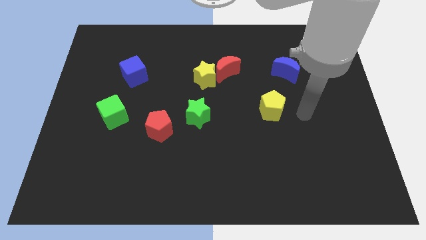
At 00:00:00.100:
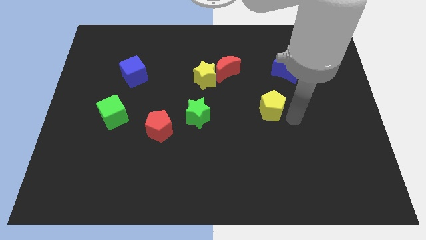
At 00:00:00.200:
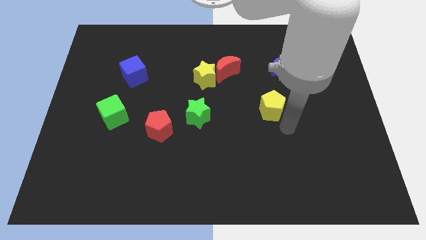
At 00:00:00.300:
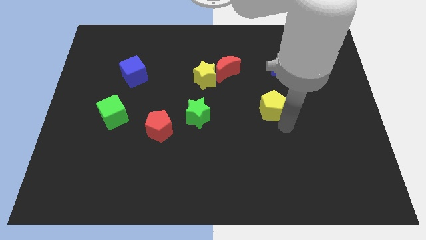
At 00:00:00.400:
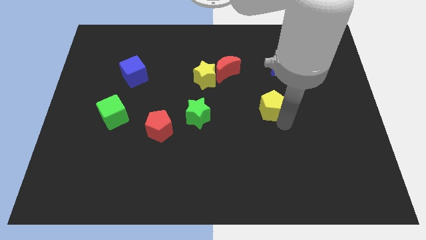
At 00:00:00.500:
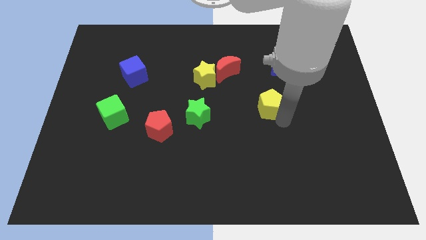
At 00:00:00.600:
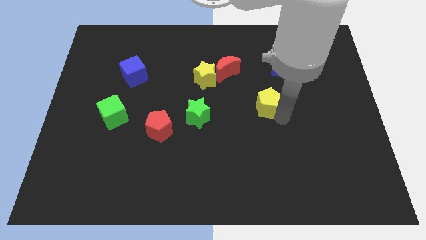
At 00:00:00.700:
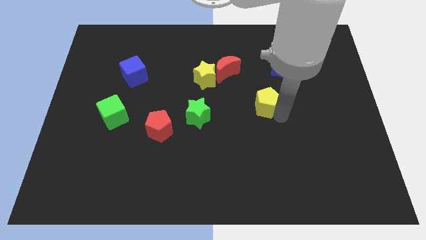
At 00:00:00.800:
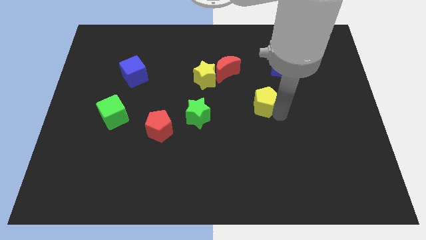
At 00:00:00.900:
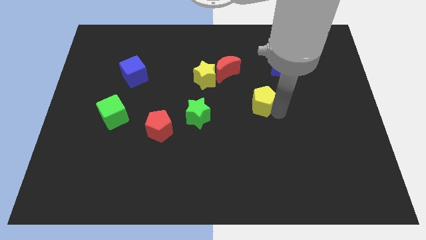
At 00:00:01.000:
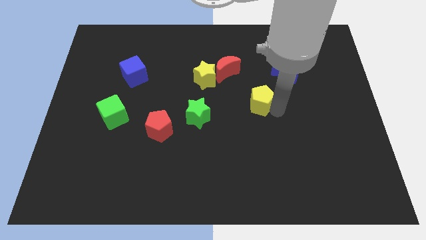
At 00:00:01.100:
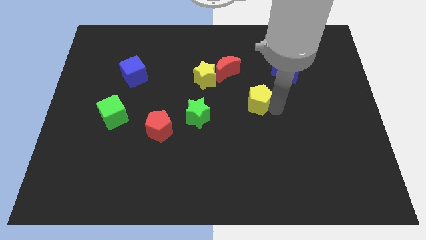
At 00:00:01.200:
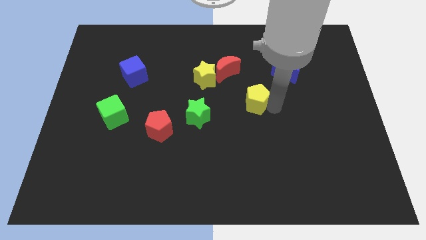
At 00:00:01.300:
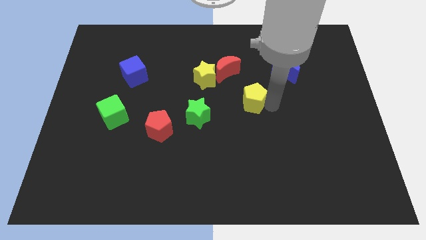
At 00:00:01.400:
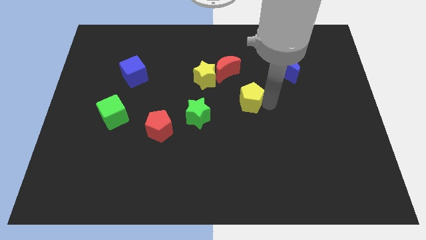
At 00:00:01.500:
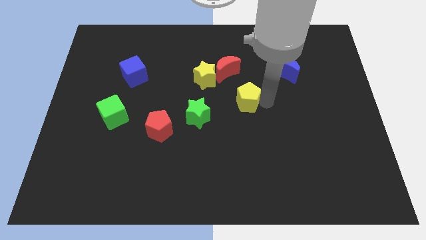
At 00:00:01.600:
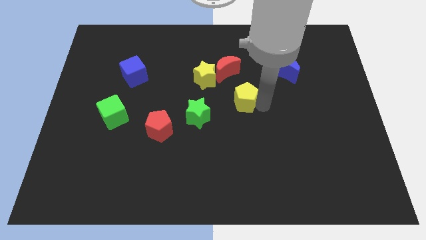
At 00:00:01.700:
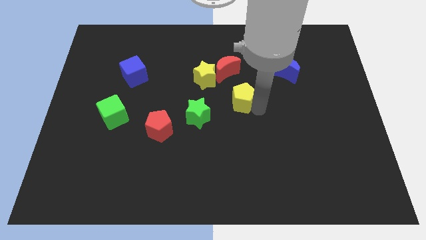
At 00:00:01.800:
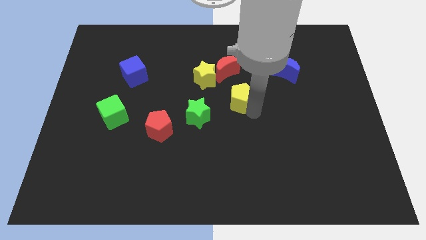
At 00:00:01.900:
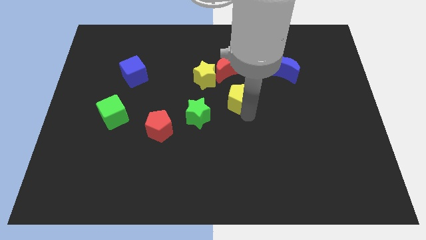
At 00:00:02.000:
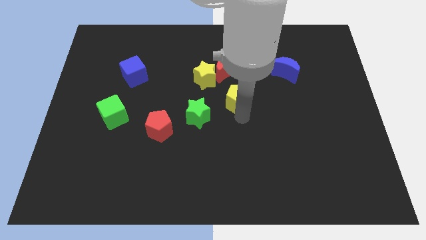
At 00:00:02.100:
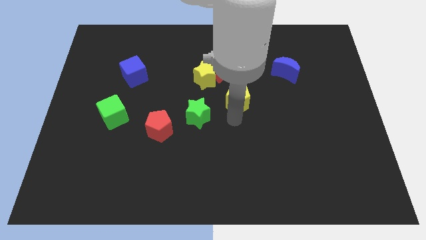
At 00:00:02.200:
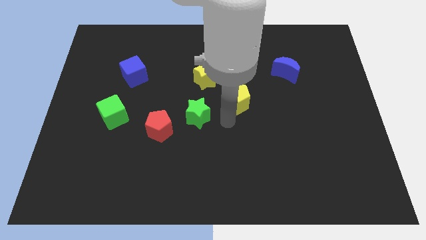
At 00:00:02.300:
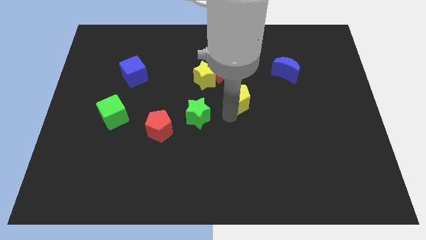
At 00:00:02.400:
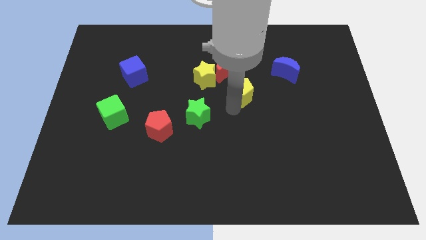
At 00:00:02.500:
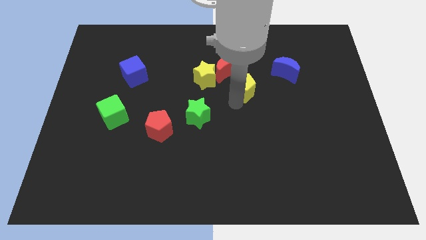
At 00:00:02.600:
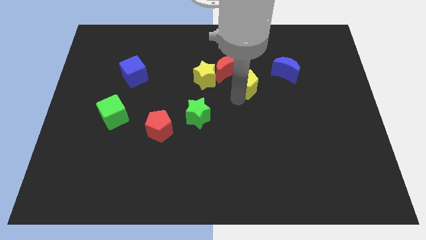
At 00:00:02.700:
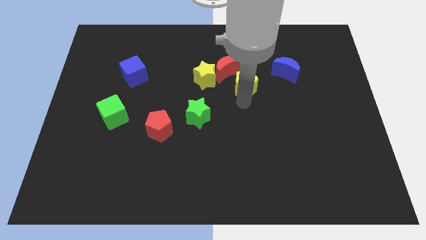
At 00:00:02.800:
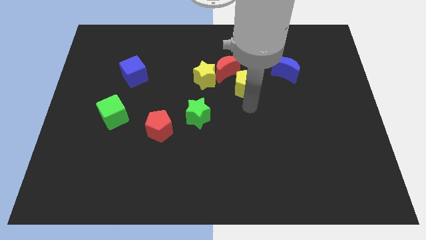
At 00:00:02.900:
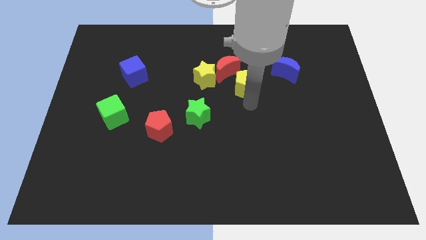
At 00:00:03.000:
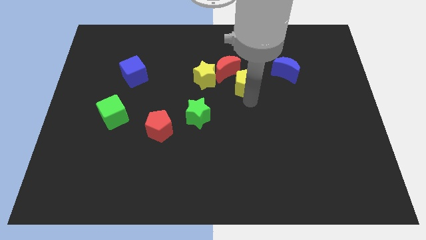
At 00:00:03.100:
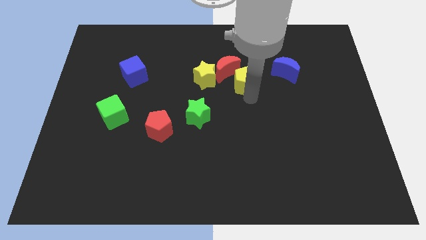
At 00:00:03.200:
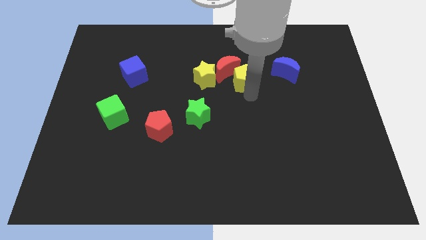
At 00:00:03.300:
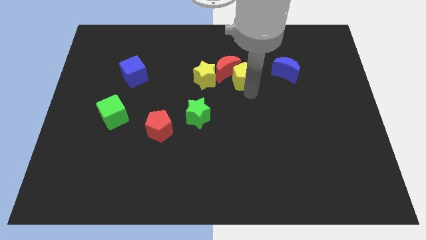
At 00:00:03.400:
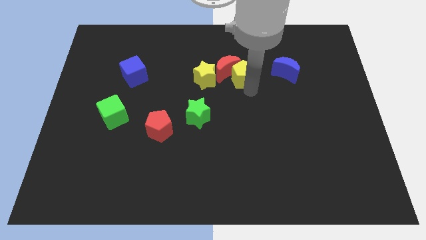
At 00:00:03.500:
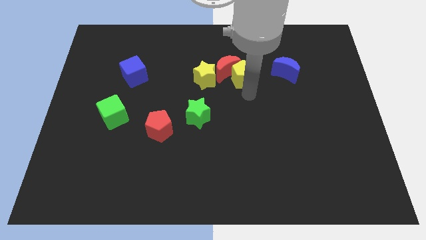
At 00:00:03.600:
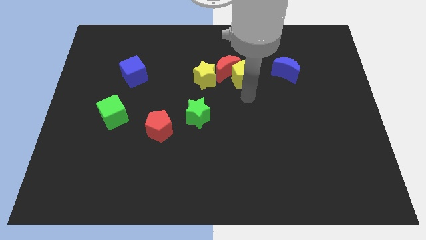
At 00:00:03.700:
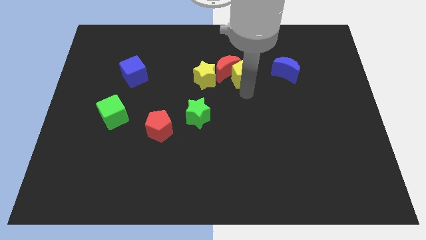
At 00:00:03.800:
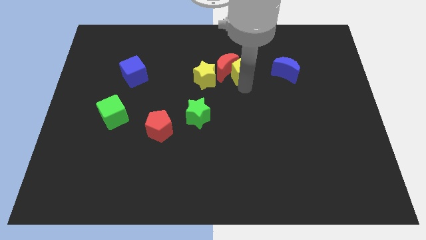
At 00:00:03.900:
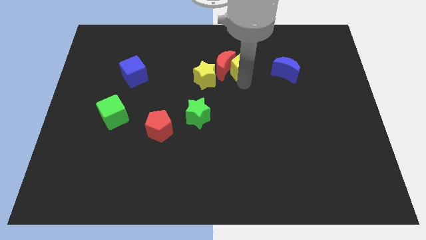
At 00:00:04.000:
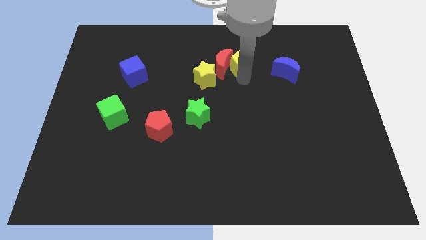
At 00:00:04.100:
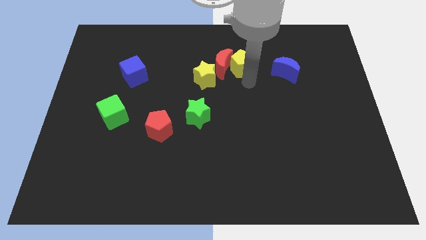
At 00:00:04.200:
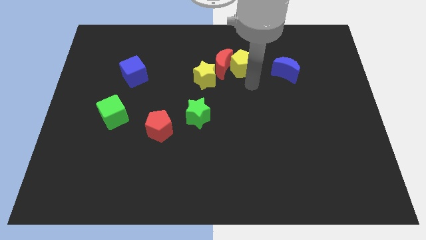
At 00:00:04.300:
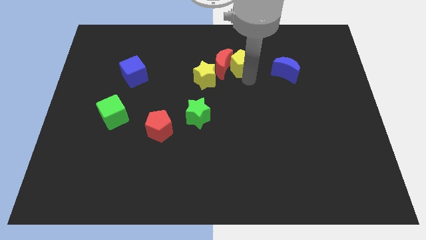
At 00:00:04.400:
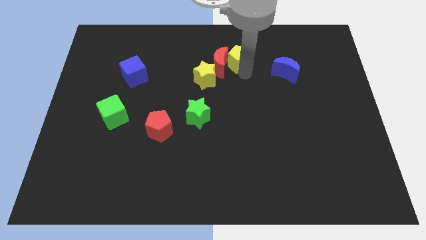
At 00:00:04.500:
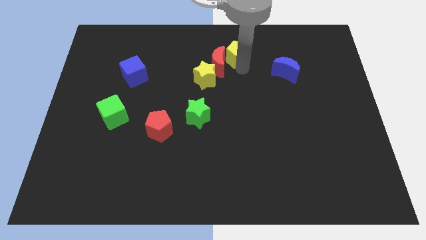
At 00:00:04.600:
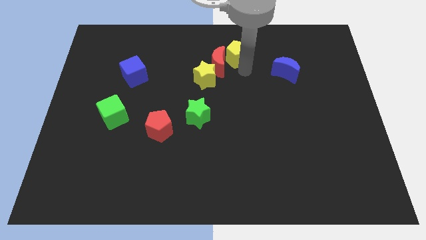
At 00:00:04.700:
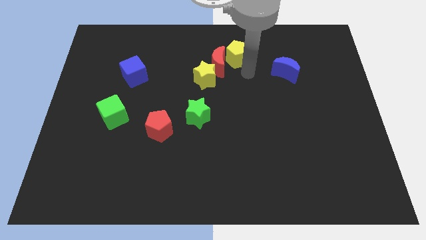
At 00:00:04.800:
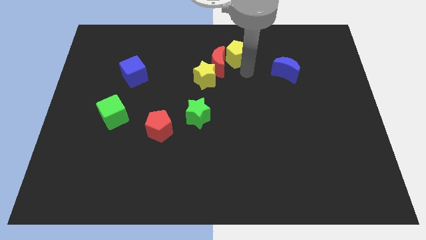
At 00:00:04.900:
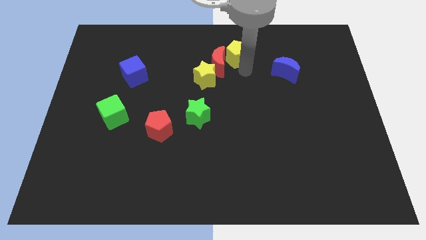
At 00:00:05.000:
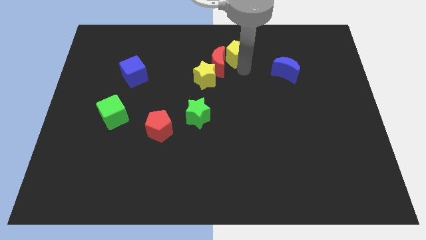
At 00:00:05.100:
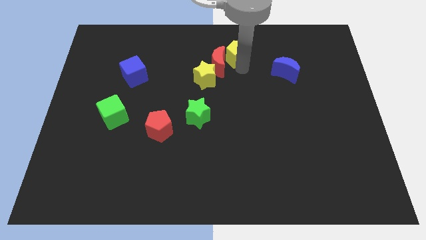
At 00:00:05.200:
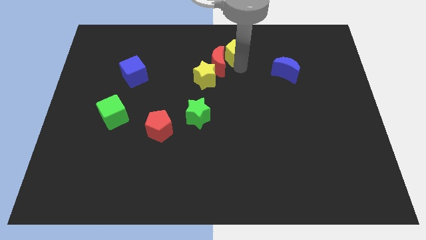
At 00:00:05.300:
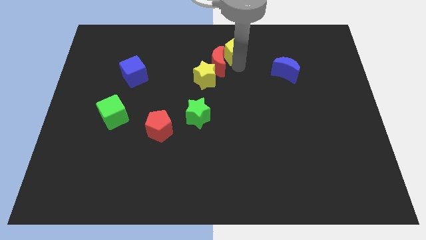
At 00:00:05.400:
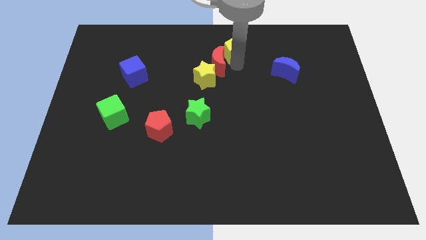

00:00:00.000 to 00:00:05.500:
put the yellow pentagon to the towards your base

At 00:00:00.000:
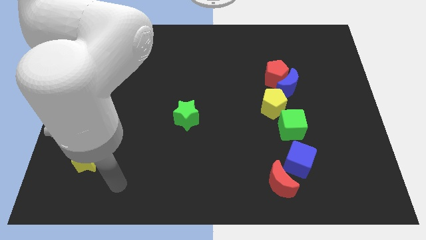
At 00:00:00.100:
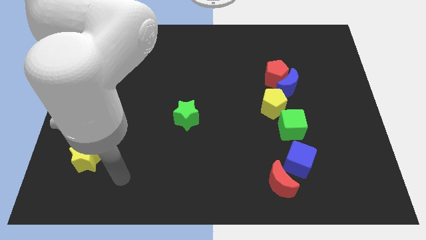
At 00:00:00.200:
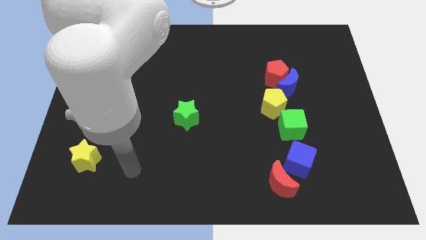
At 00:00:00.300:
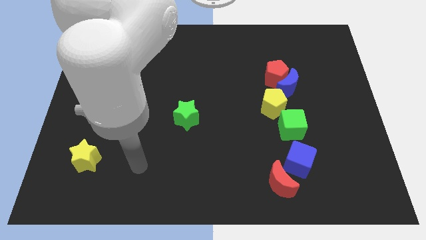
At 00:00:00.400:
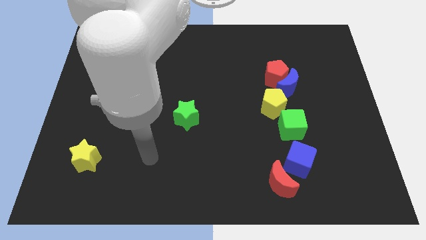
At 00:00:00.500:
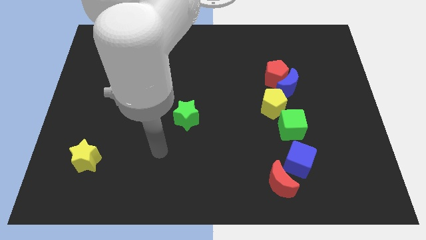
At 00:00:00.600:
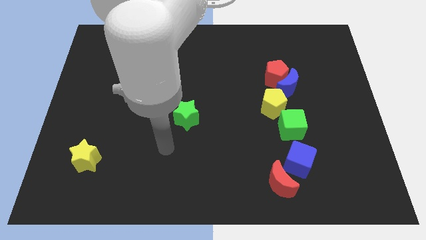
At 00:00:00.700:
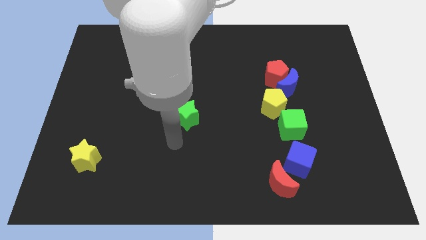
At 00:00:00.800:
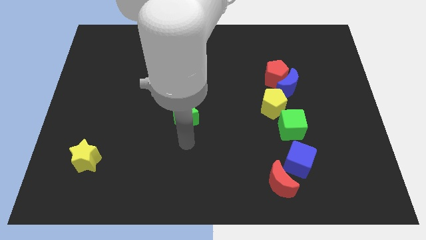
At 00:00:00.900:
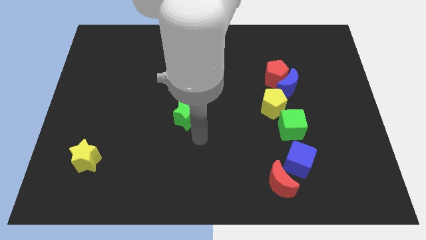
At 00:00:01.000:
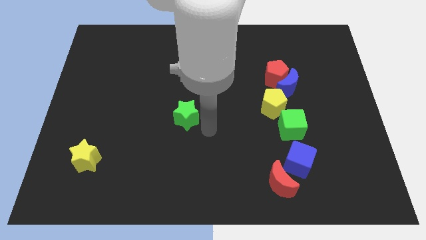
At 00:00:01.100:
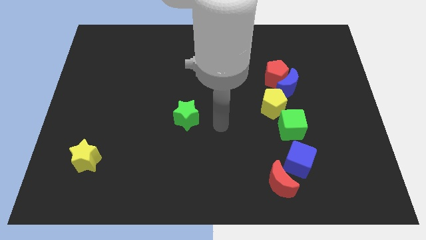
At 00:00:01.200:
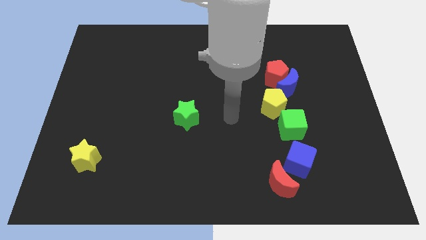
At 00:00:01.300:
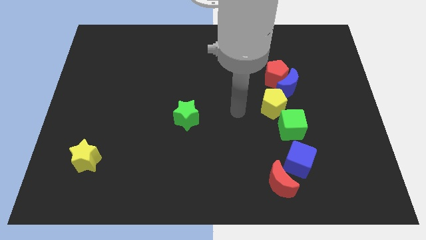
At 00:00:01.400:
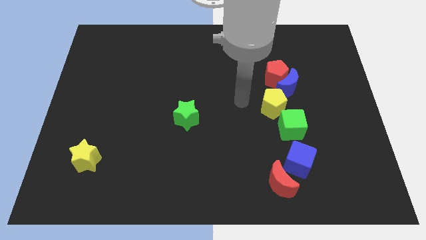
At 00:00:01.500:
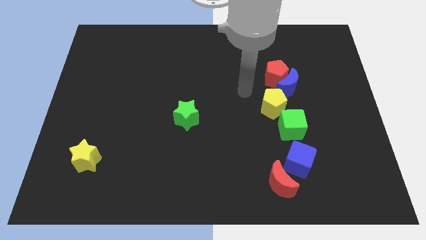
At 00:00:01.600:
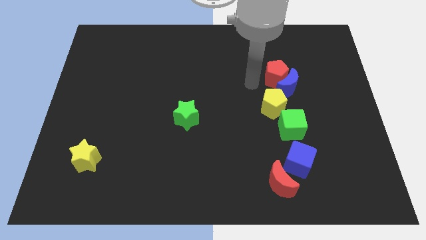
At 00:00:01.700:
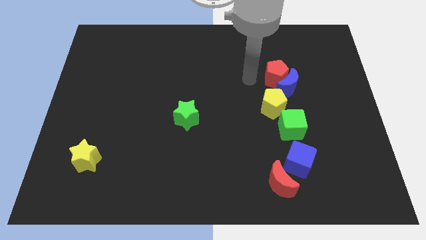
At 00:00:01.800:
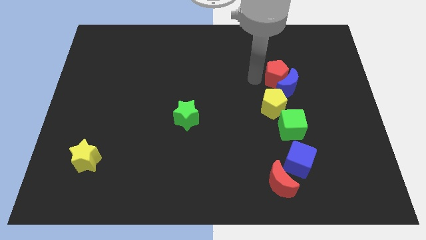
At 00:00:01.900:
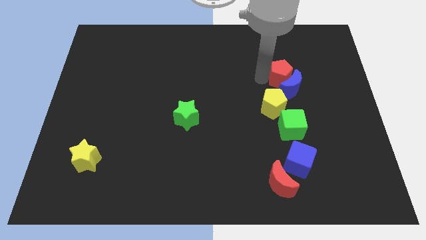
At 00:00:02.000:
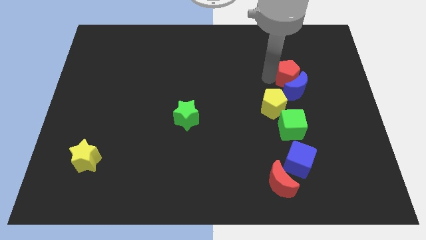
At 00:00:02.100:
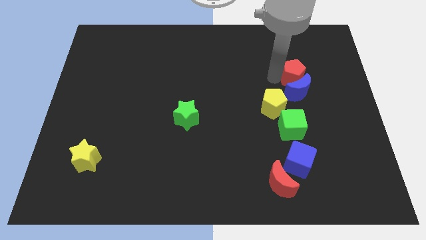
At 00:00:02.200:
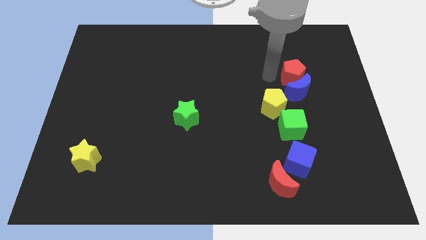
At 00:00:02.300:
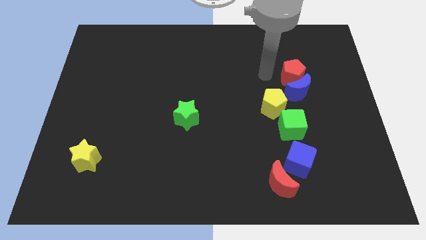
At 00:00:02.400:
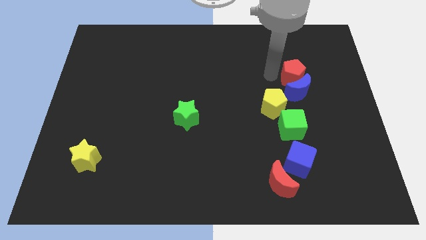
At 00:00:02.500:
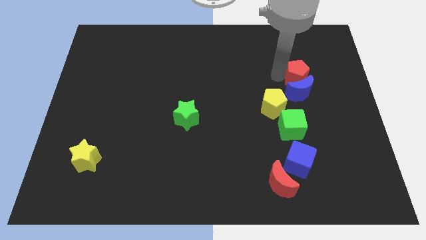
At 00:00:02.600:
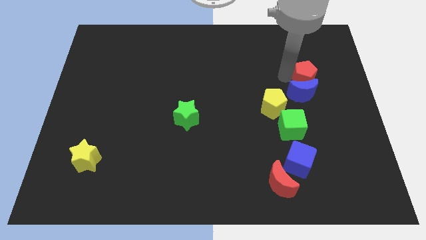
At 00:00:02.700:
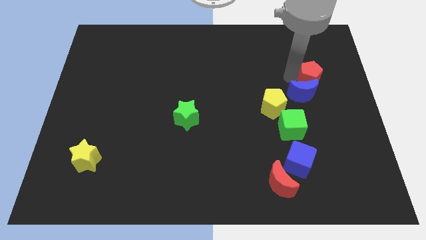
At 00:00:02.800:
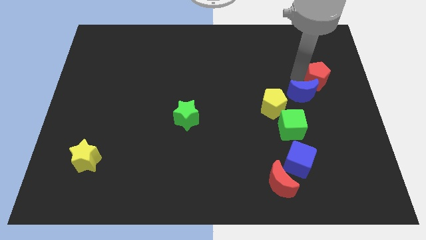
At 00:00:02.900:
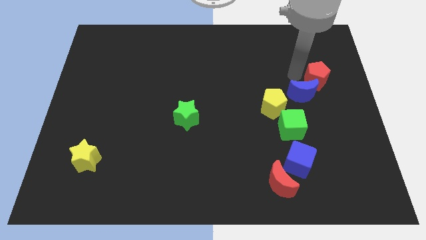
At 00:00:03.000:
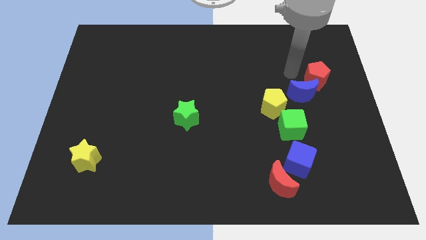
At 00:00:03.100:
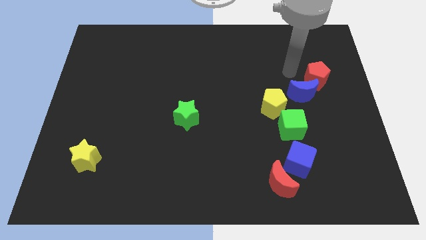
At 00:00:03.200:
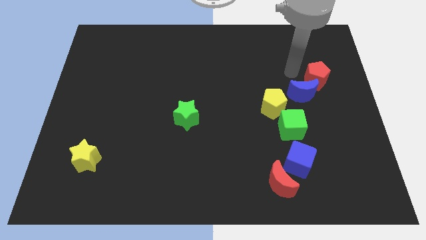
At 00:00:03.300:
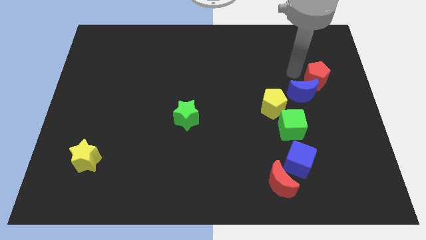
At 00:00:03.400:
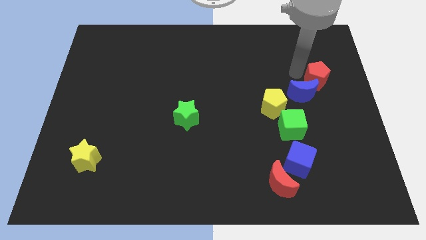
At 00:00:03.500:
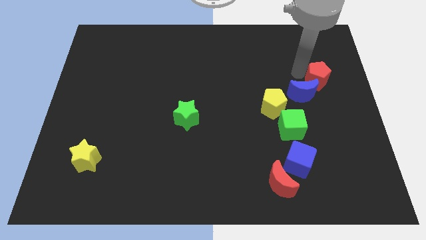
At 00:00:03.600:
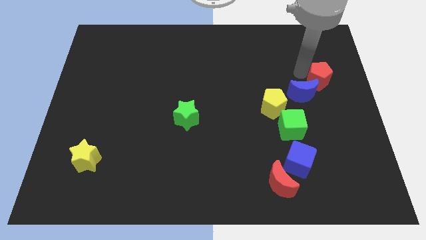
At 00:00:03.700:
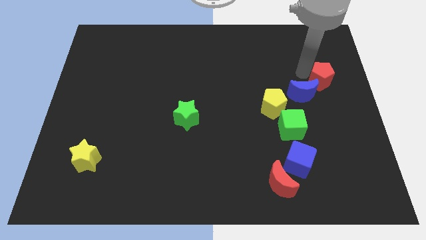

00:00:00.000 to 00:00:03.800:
slide the red pentagon to the center right
